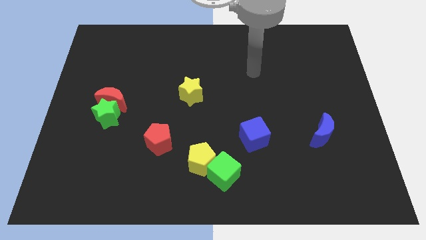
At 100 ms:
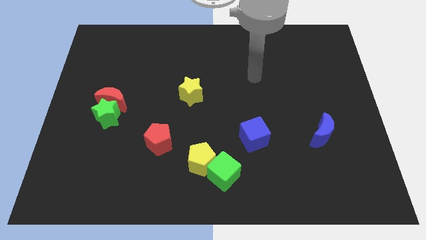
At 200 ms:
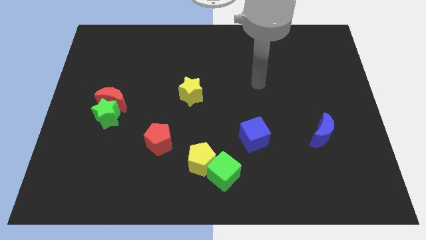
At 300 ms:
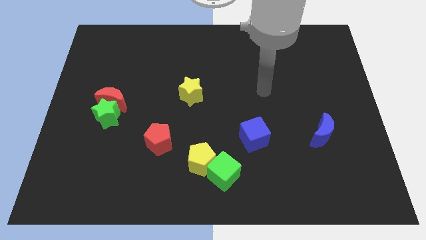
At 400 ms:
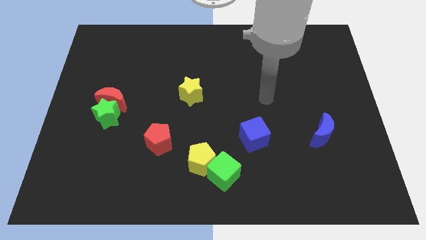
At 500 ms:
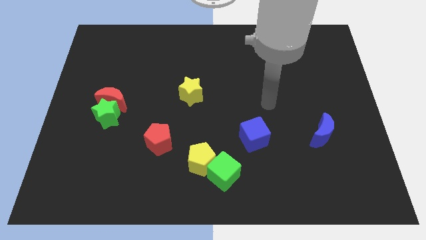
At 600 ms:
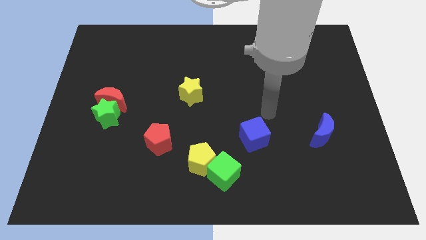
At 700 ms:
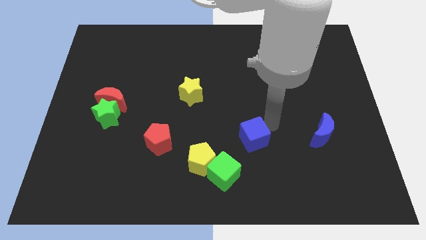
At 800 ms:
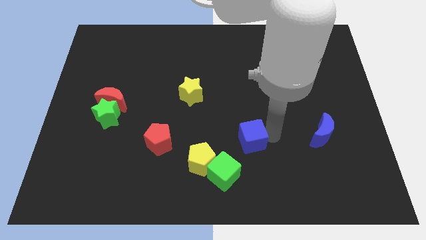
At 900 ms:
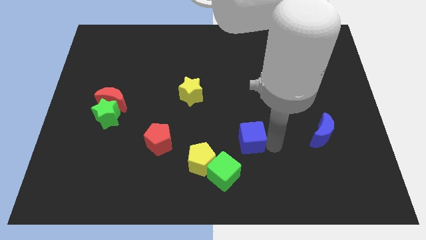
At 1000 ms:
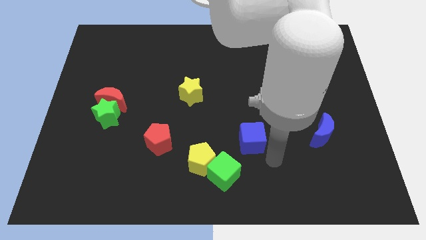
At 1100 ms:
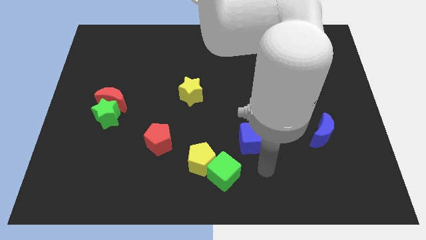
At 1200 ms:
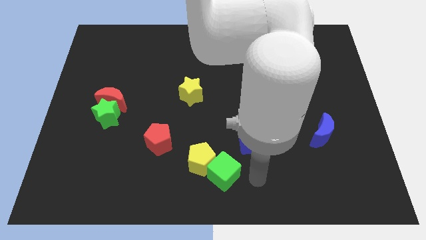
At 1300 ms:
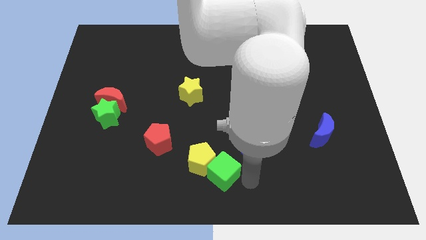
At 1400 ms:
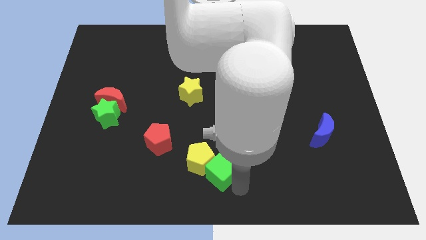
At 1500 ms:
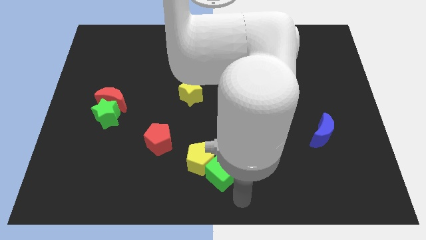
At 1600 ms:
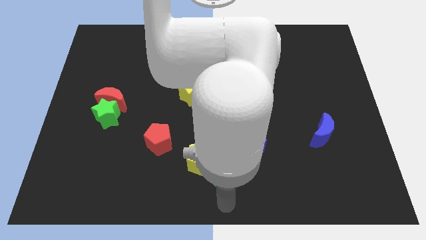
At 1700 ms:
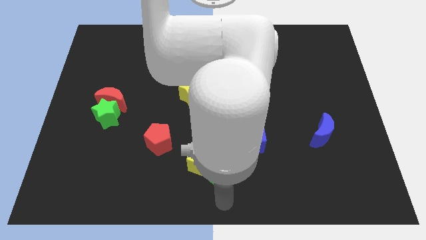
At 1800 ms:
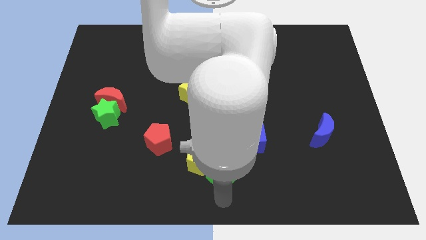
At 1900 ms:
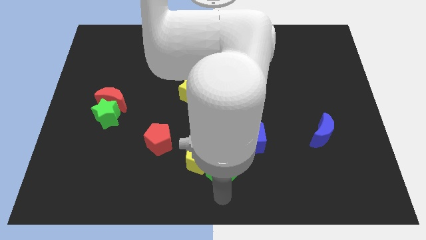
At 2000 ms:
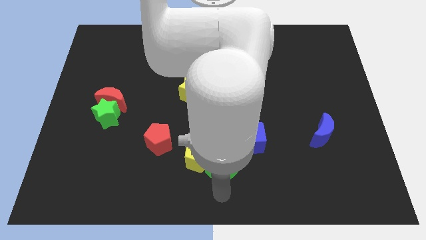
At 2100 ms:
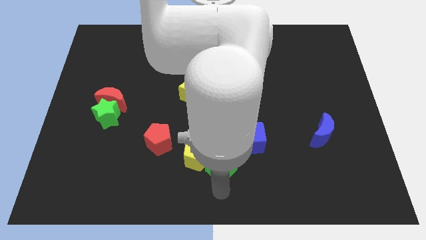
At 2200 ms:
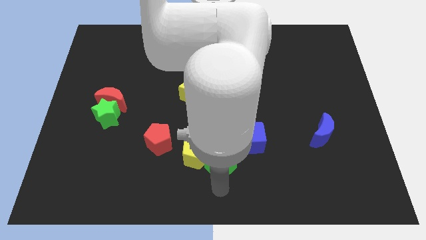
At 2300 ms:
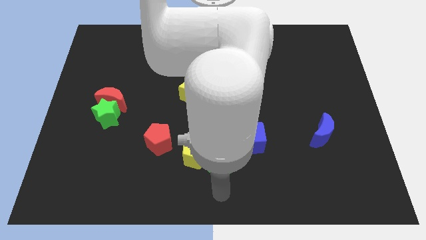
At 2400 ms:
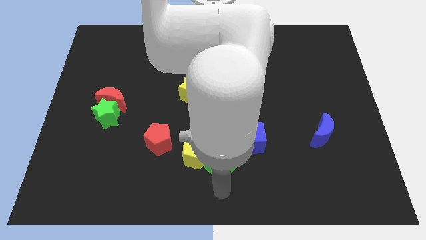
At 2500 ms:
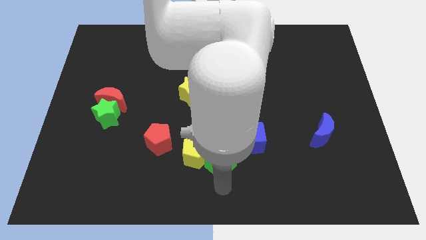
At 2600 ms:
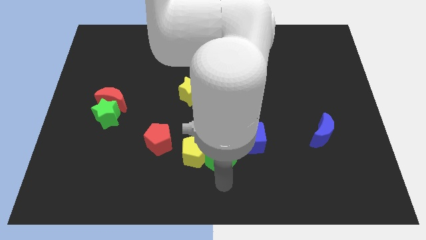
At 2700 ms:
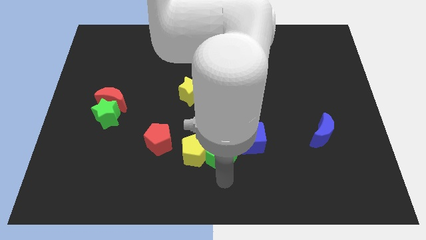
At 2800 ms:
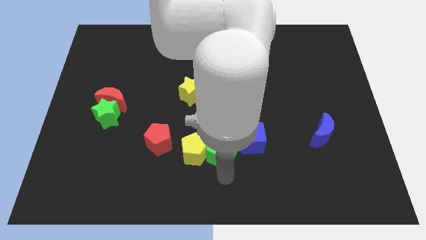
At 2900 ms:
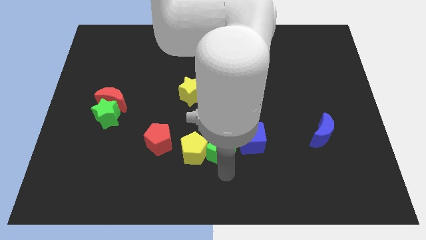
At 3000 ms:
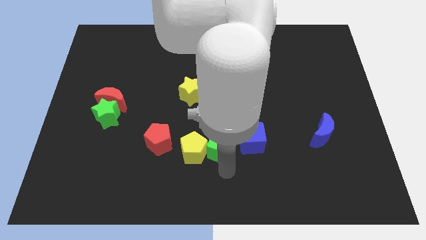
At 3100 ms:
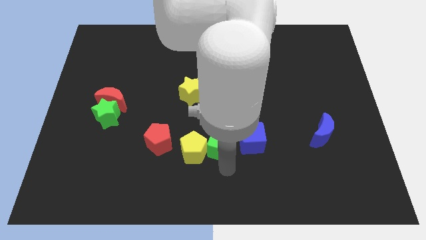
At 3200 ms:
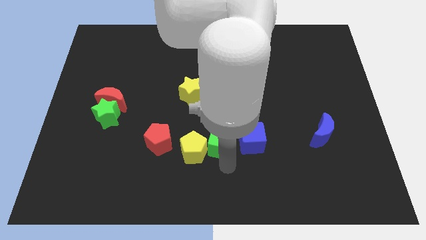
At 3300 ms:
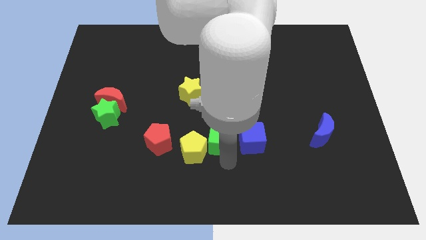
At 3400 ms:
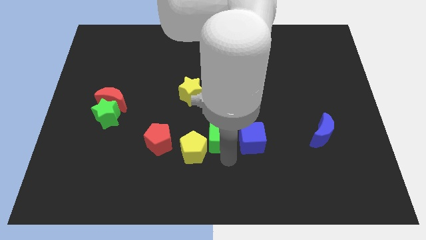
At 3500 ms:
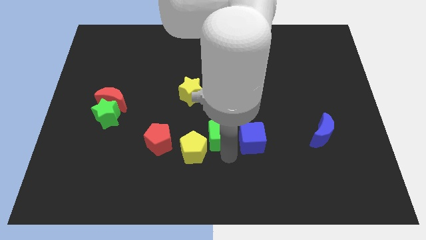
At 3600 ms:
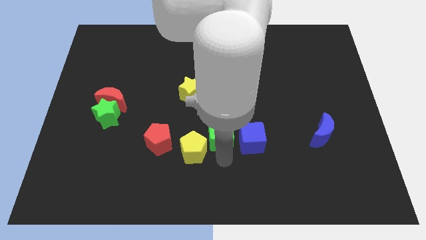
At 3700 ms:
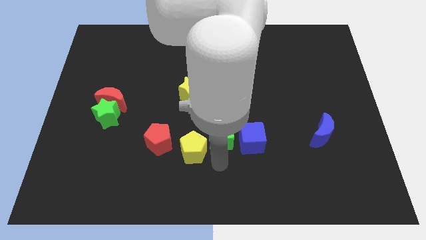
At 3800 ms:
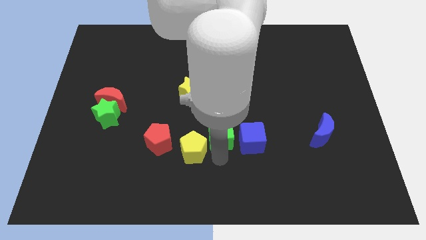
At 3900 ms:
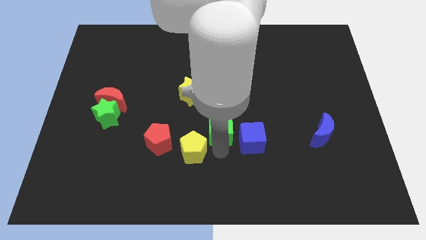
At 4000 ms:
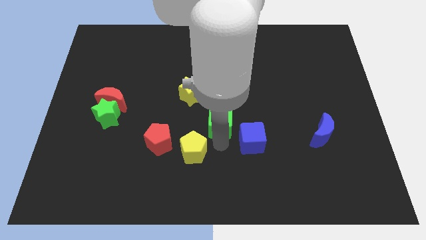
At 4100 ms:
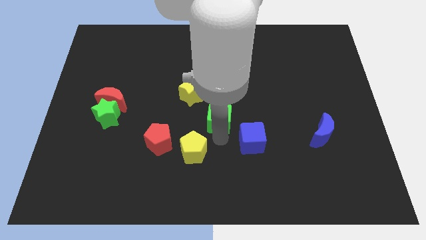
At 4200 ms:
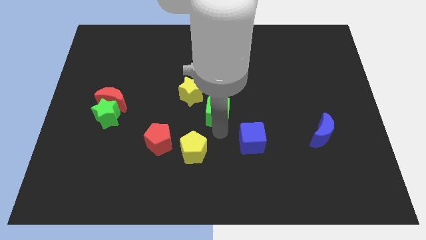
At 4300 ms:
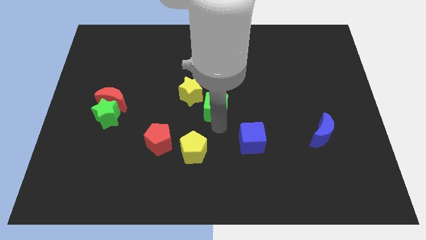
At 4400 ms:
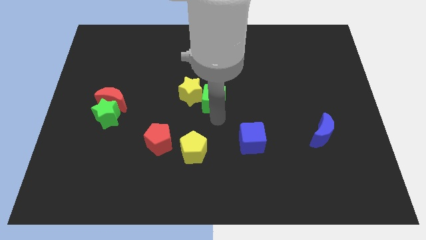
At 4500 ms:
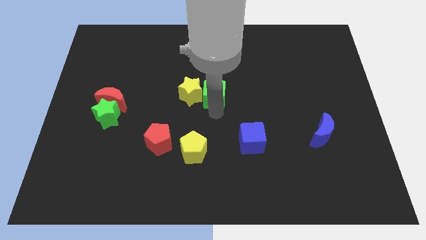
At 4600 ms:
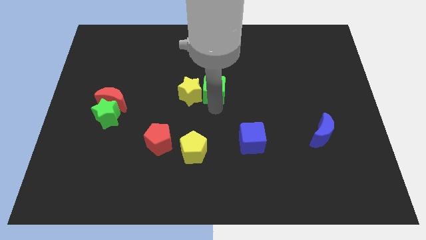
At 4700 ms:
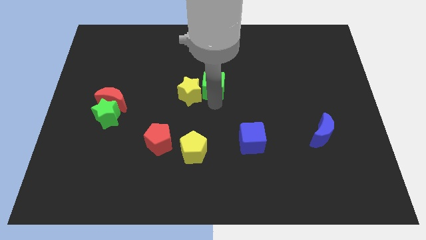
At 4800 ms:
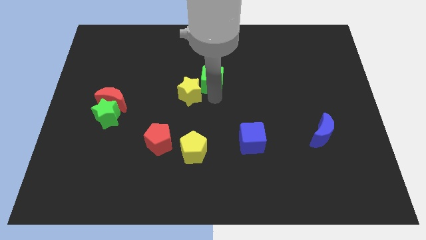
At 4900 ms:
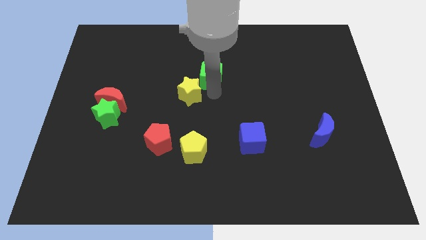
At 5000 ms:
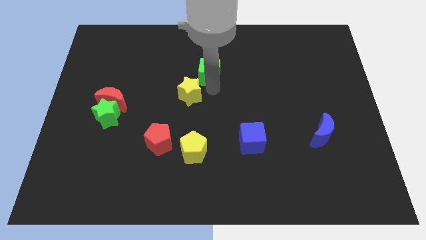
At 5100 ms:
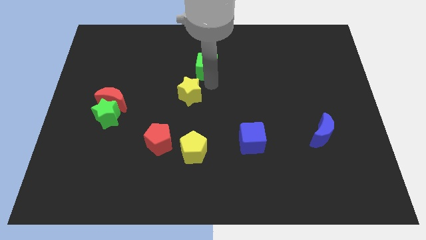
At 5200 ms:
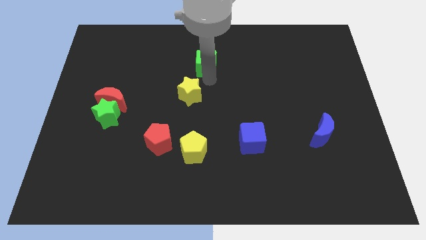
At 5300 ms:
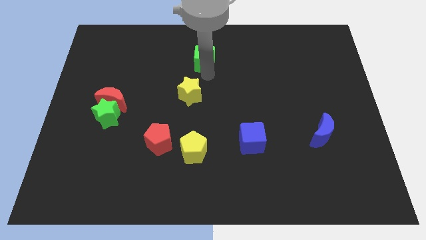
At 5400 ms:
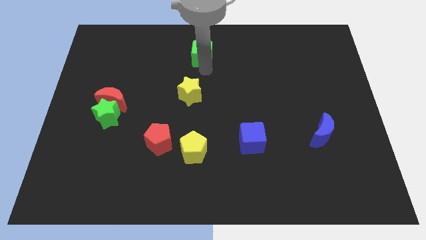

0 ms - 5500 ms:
push the green cube to the top side

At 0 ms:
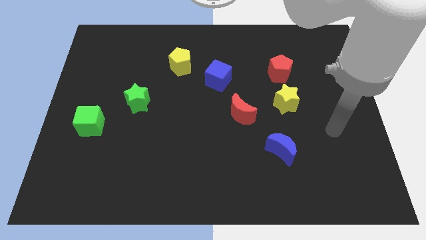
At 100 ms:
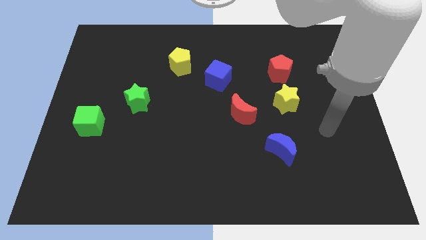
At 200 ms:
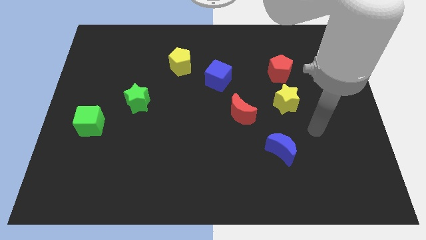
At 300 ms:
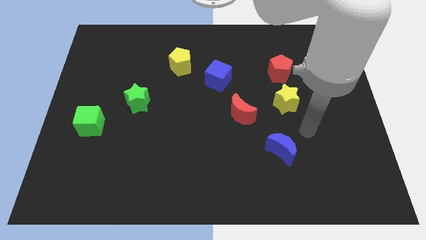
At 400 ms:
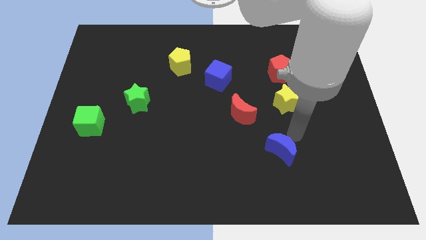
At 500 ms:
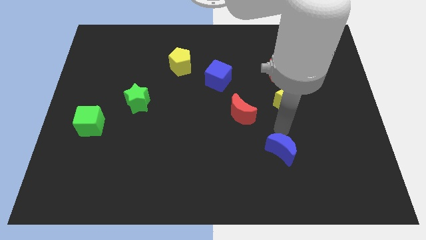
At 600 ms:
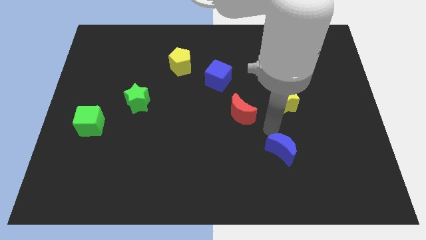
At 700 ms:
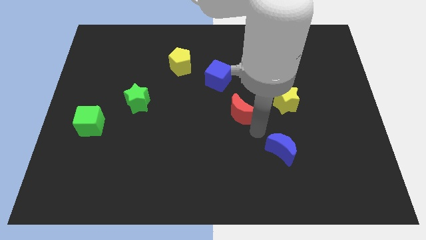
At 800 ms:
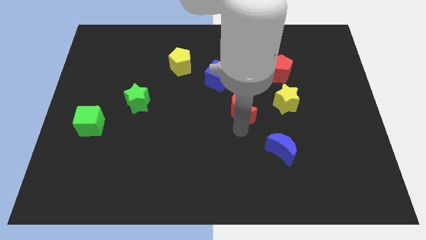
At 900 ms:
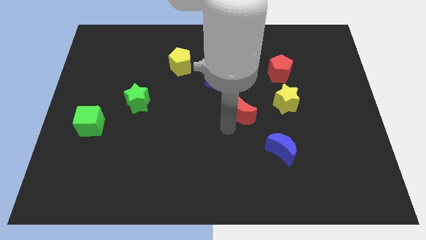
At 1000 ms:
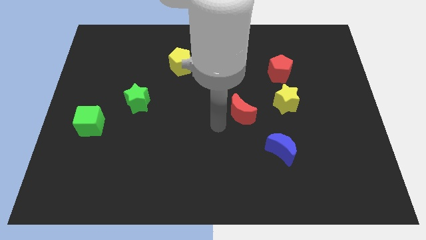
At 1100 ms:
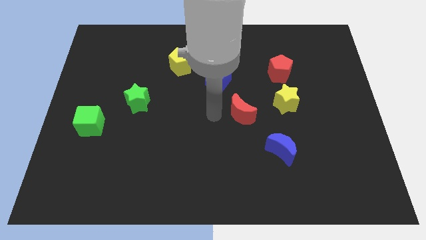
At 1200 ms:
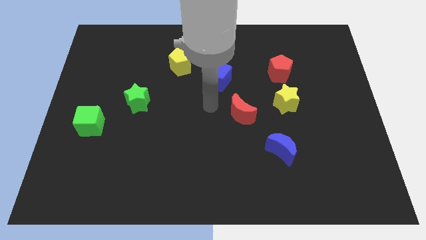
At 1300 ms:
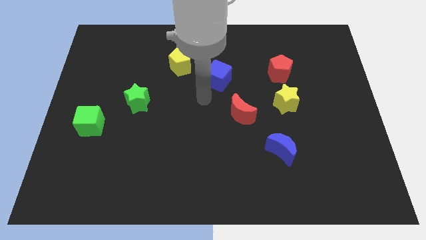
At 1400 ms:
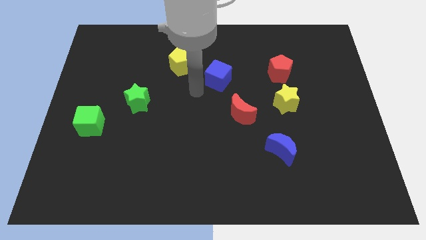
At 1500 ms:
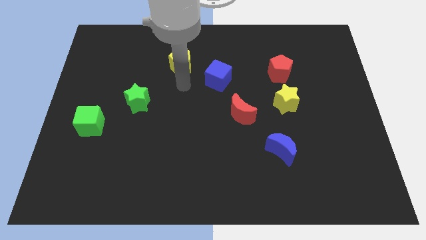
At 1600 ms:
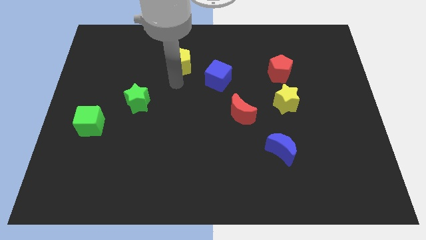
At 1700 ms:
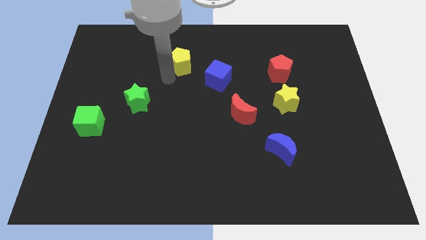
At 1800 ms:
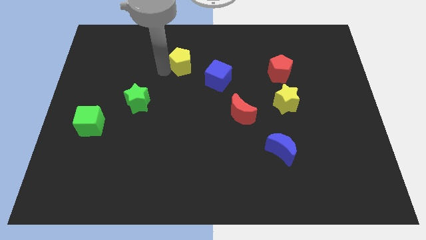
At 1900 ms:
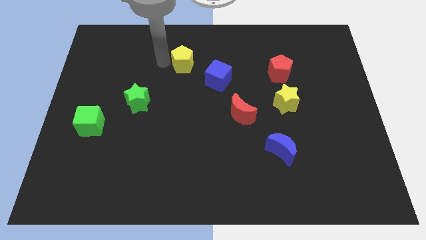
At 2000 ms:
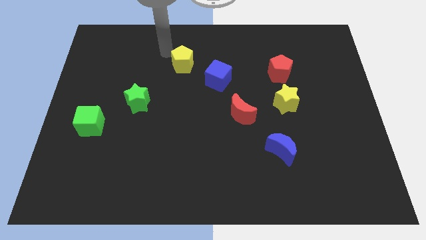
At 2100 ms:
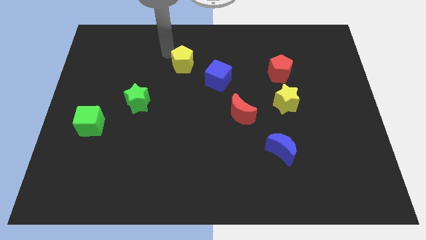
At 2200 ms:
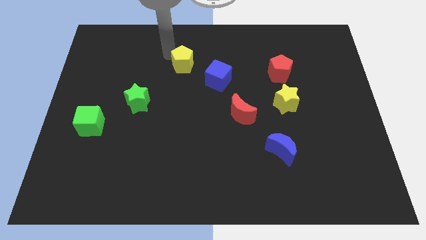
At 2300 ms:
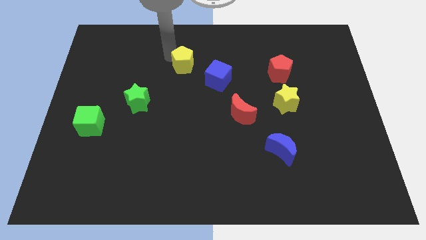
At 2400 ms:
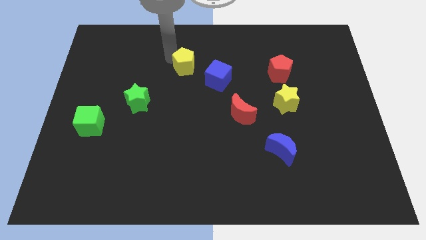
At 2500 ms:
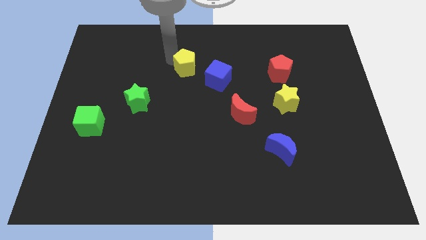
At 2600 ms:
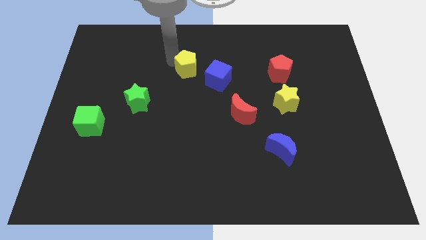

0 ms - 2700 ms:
push the yellow pentagon to the center of the board
